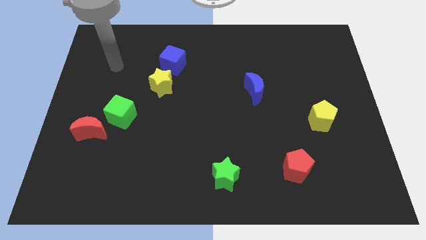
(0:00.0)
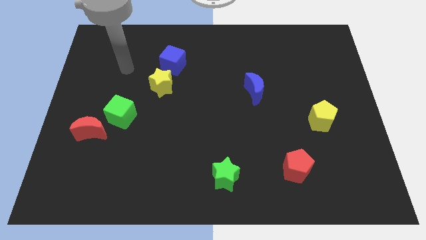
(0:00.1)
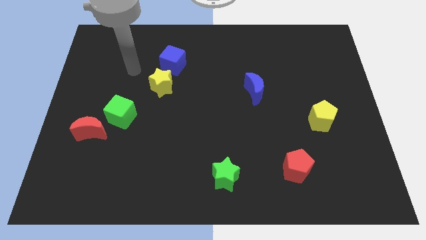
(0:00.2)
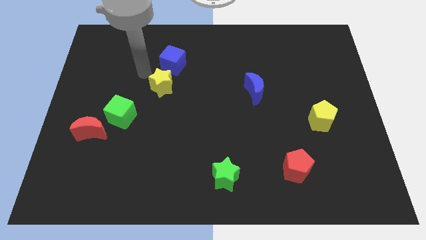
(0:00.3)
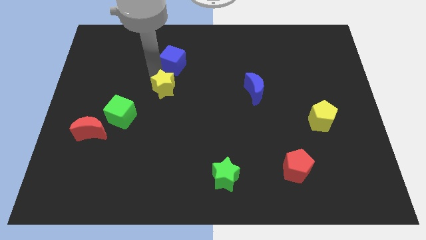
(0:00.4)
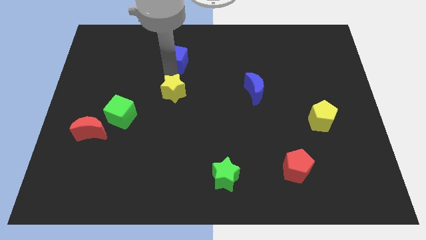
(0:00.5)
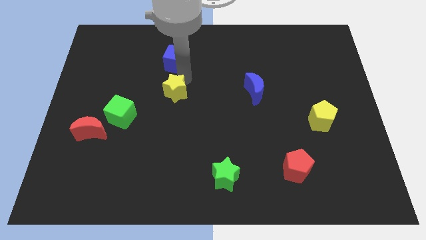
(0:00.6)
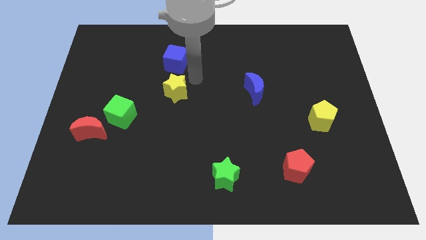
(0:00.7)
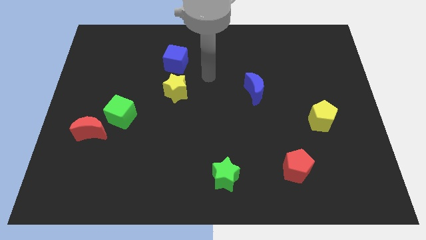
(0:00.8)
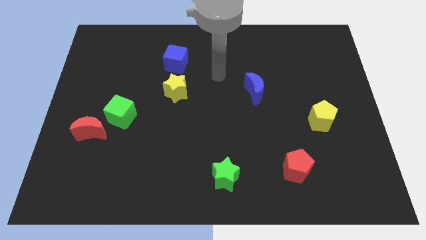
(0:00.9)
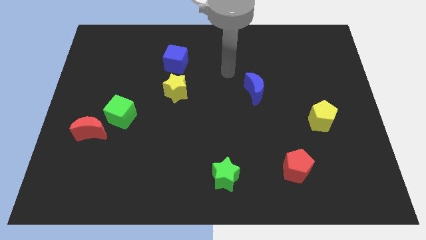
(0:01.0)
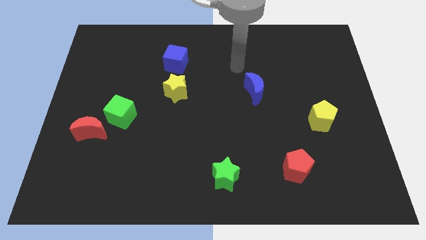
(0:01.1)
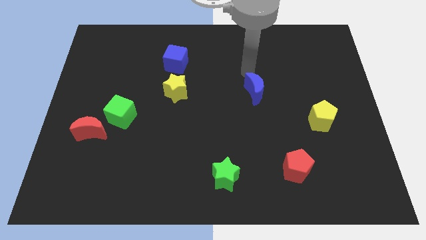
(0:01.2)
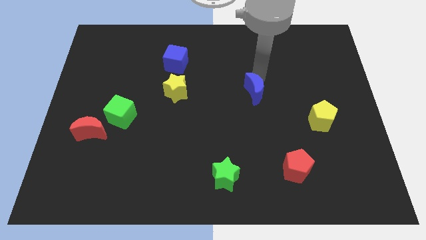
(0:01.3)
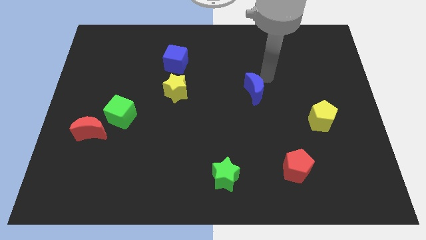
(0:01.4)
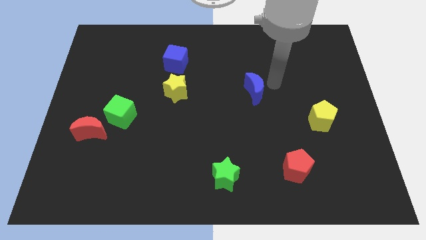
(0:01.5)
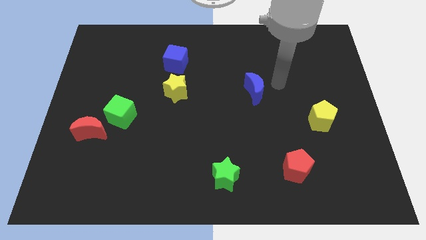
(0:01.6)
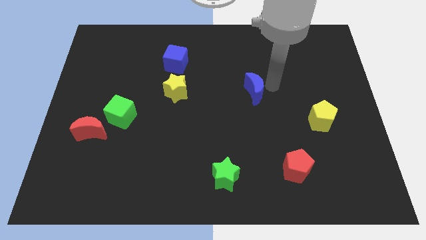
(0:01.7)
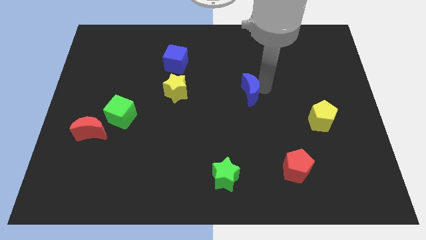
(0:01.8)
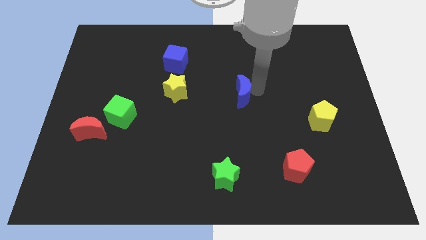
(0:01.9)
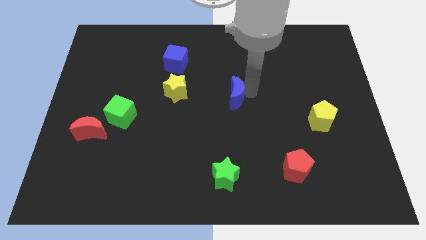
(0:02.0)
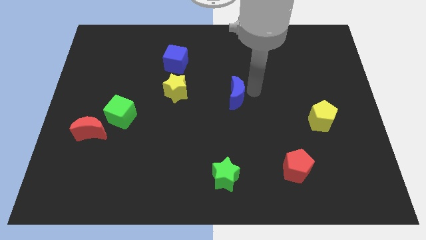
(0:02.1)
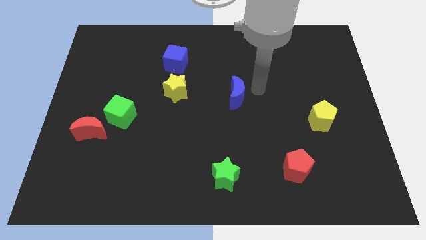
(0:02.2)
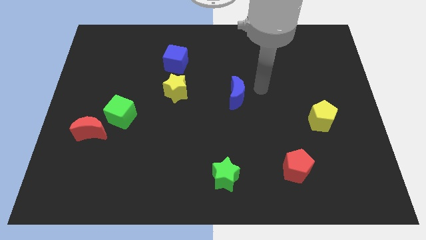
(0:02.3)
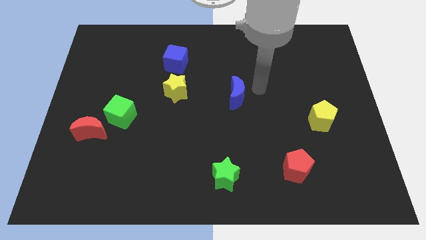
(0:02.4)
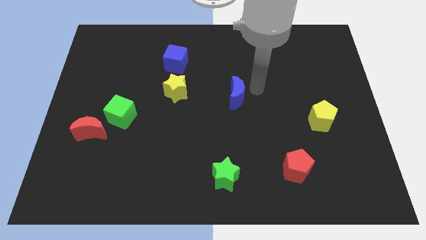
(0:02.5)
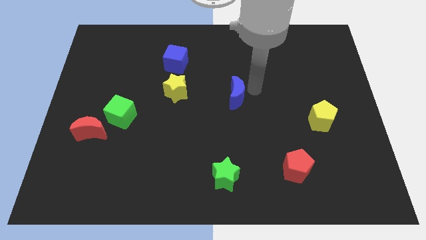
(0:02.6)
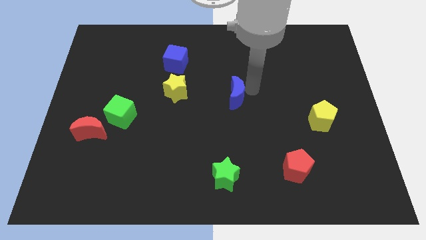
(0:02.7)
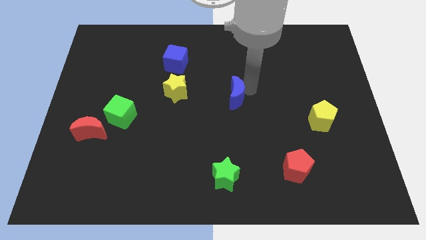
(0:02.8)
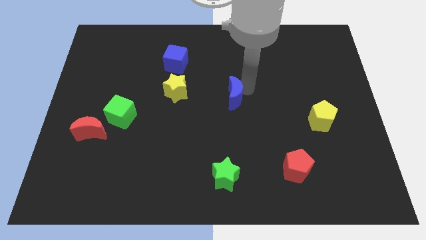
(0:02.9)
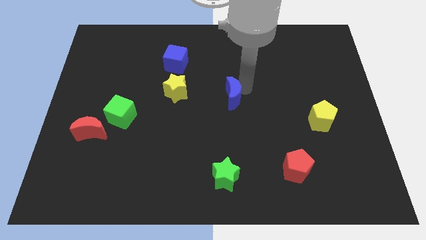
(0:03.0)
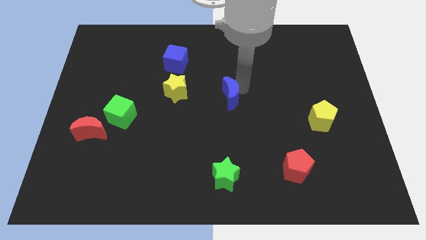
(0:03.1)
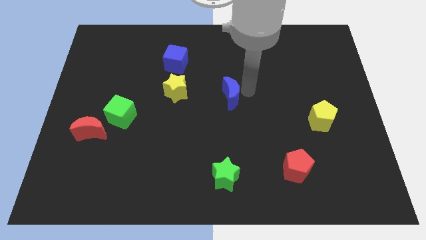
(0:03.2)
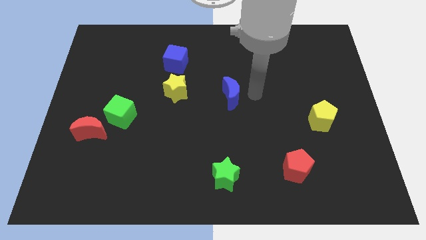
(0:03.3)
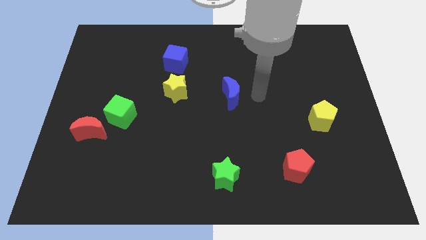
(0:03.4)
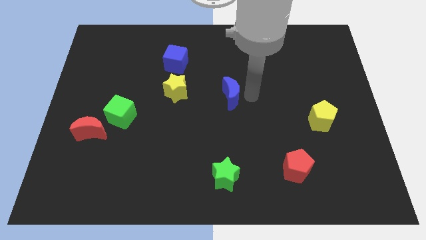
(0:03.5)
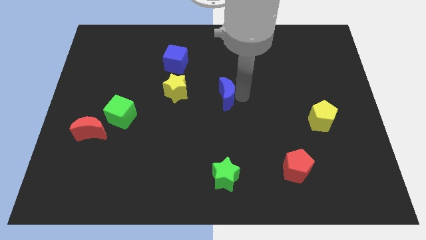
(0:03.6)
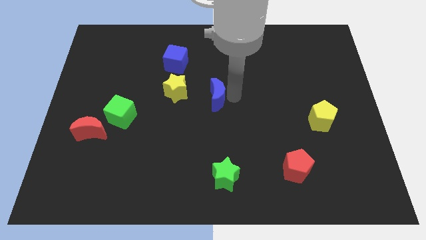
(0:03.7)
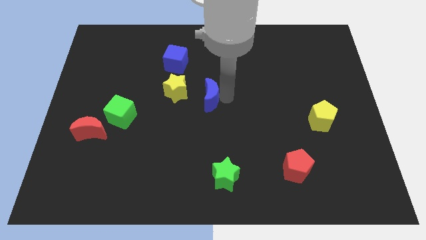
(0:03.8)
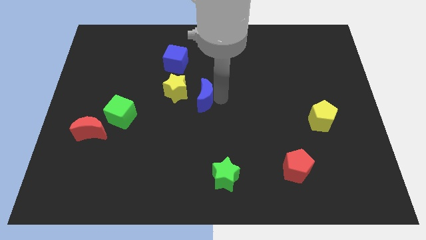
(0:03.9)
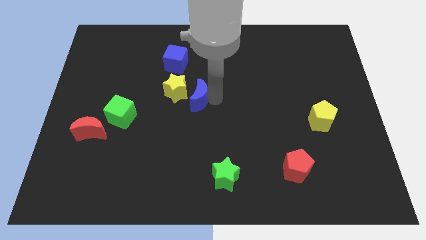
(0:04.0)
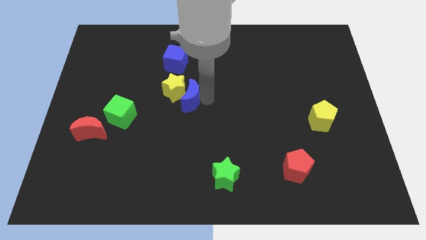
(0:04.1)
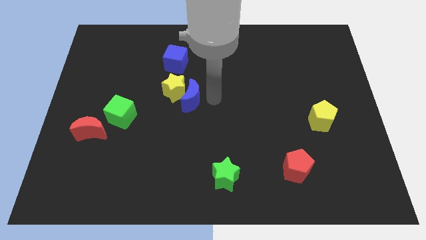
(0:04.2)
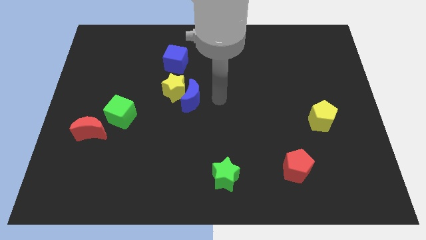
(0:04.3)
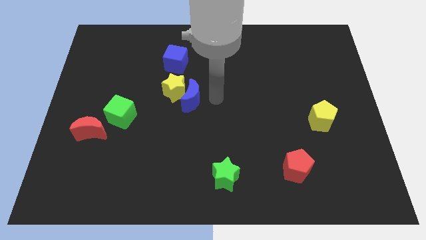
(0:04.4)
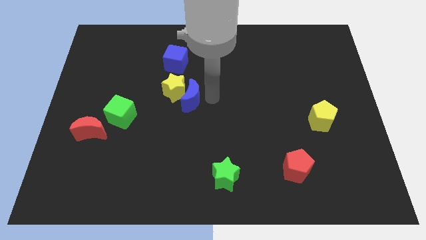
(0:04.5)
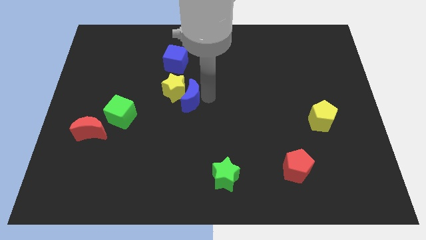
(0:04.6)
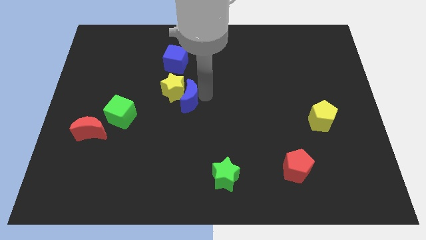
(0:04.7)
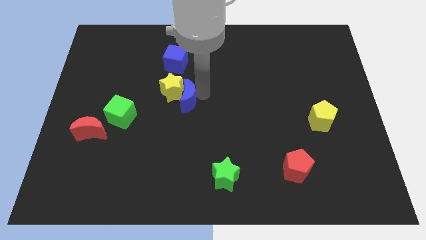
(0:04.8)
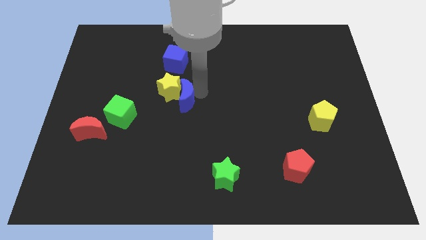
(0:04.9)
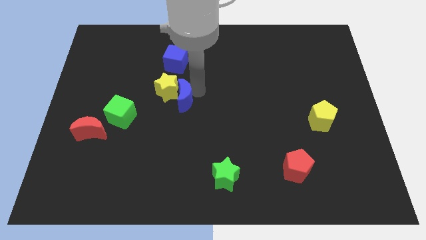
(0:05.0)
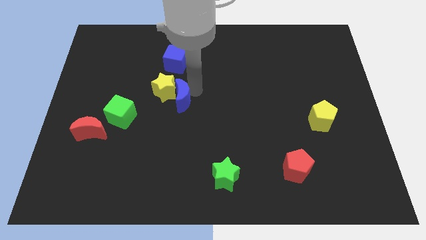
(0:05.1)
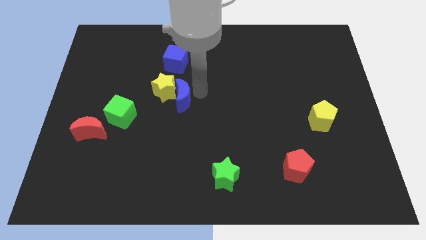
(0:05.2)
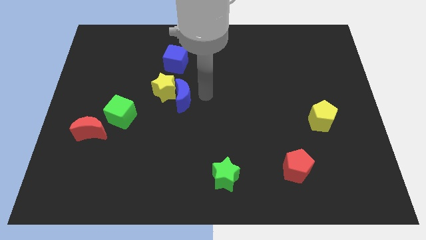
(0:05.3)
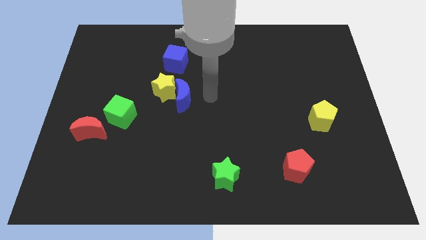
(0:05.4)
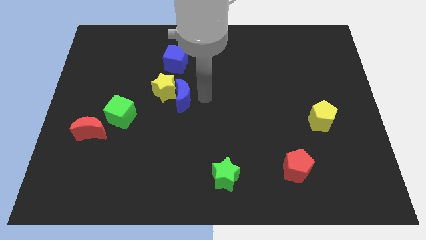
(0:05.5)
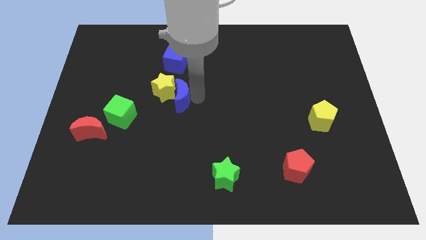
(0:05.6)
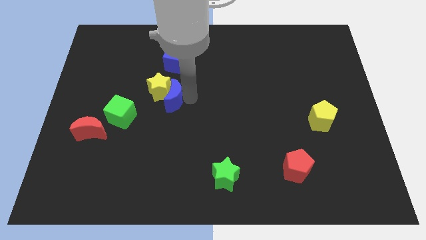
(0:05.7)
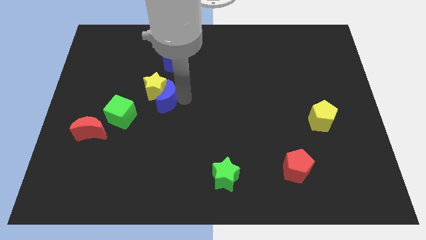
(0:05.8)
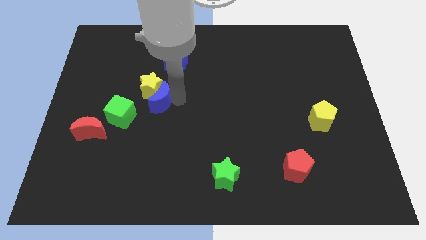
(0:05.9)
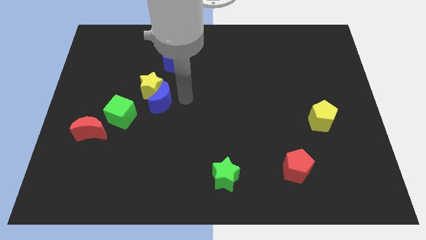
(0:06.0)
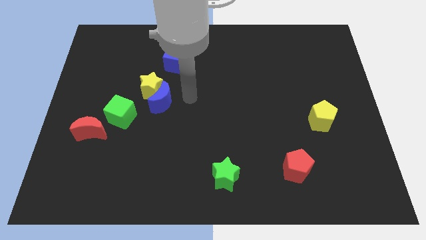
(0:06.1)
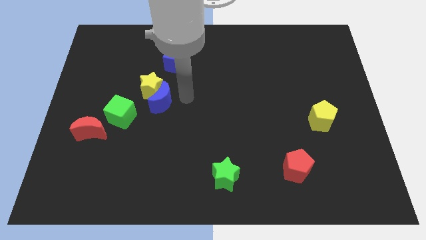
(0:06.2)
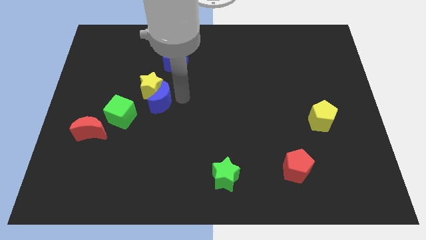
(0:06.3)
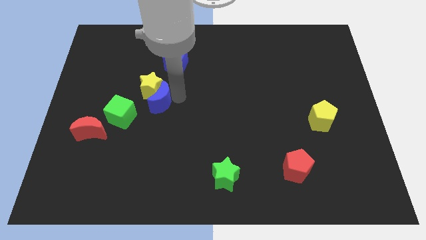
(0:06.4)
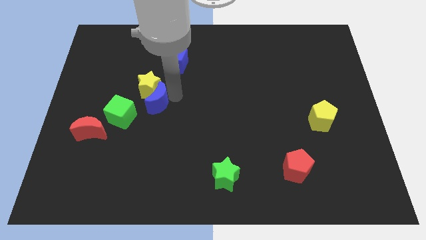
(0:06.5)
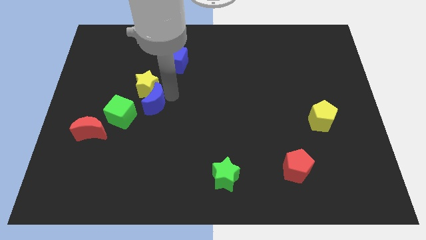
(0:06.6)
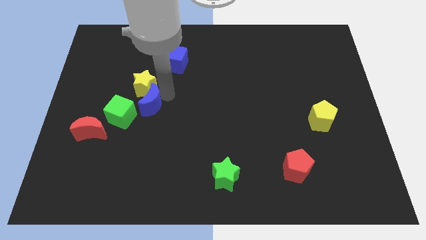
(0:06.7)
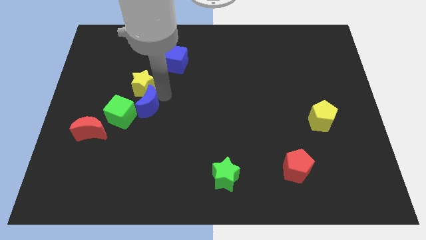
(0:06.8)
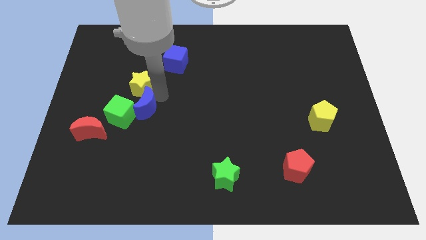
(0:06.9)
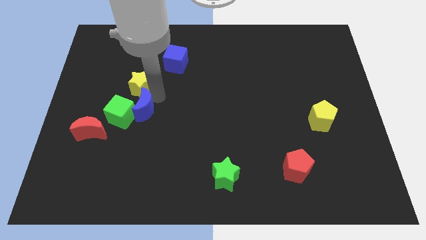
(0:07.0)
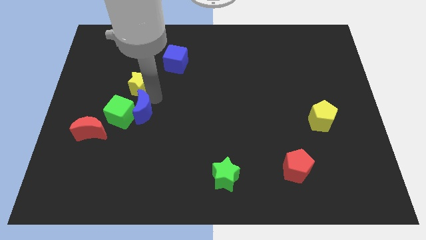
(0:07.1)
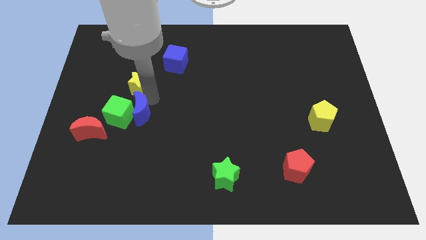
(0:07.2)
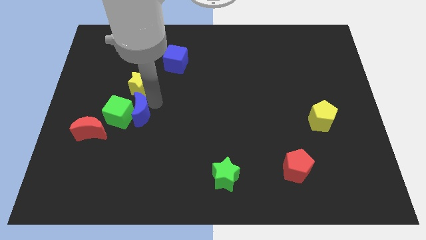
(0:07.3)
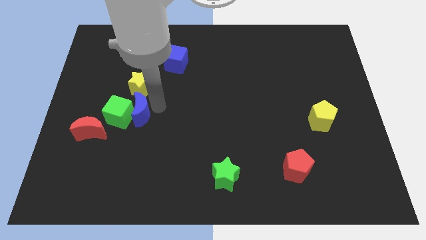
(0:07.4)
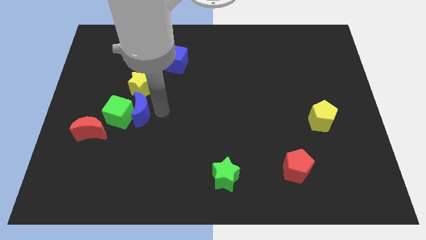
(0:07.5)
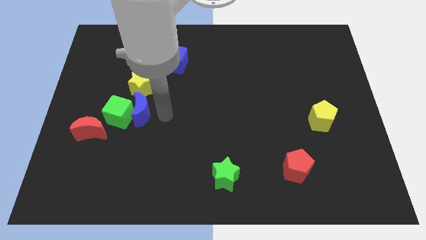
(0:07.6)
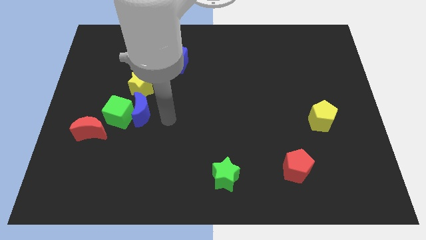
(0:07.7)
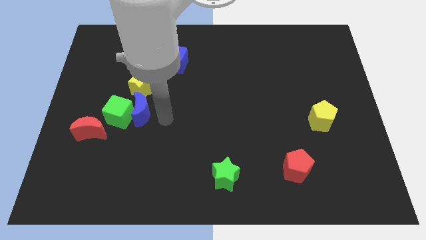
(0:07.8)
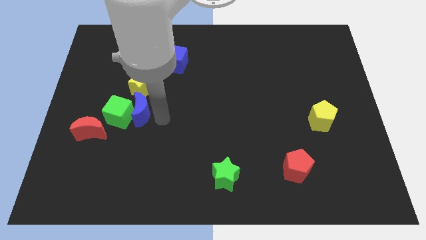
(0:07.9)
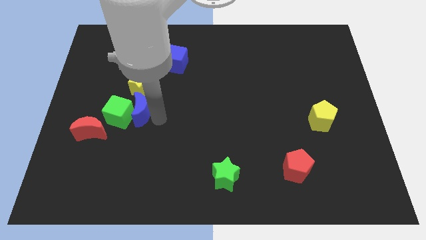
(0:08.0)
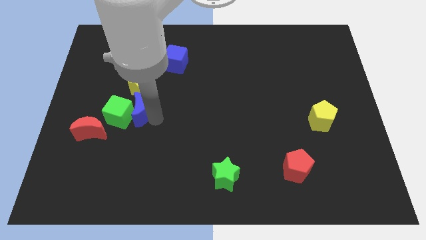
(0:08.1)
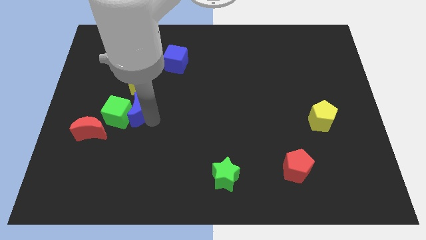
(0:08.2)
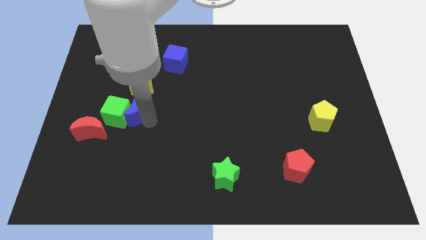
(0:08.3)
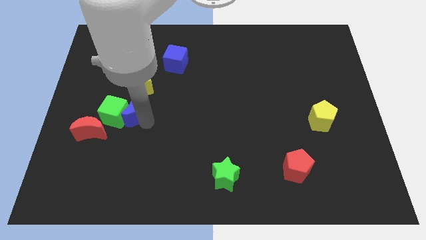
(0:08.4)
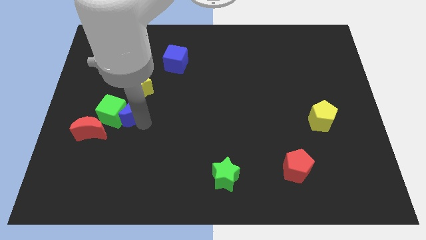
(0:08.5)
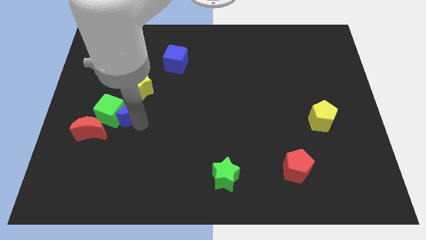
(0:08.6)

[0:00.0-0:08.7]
put the blue moon to the bottom left of the yellow star
